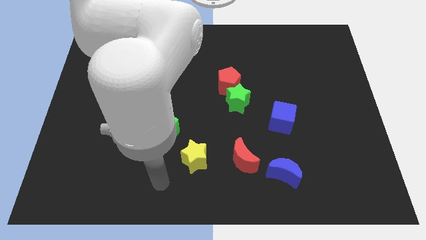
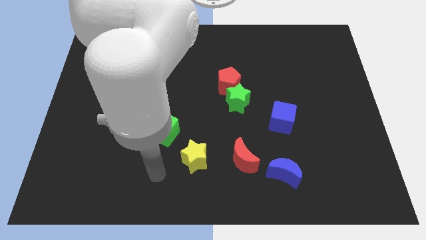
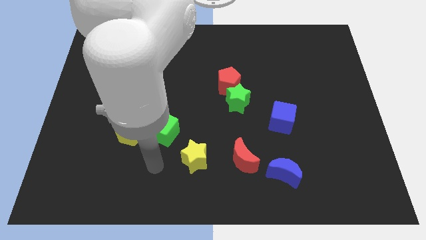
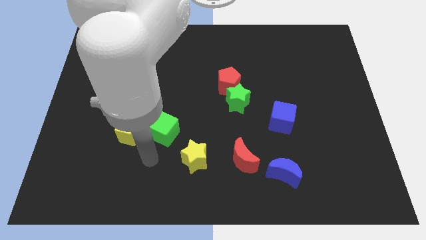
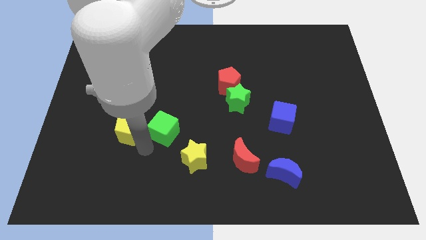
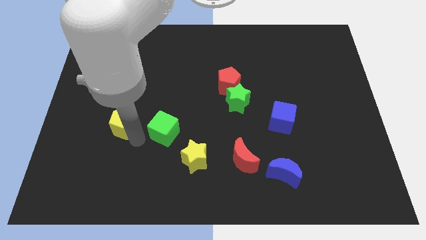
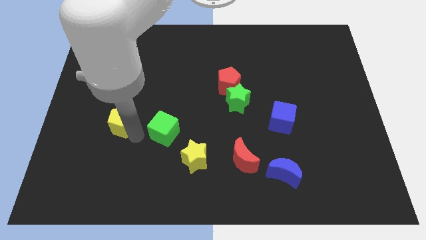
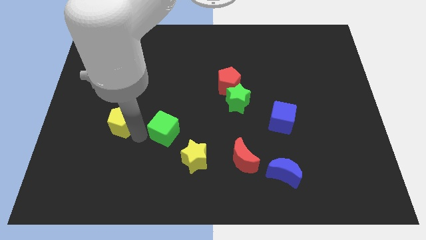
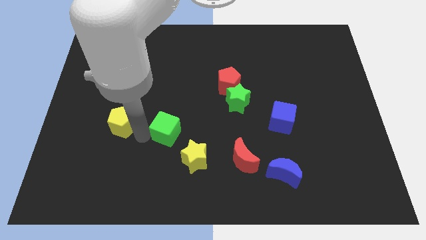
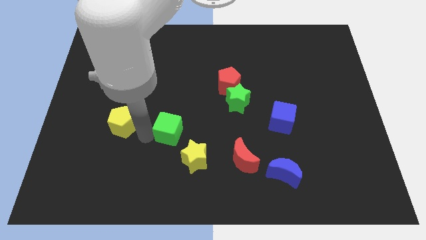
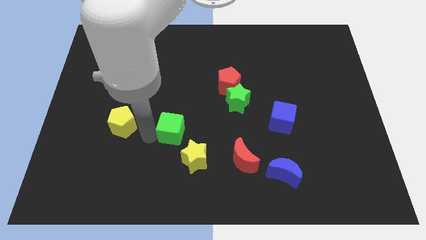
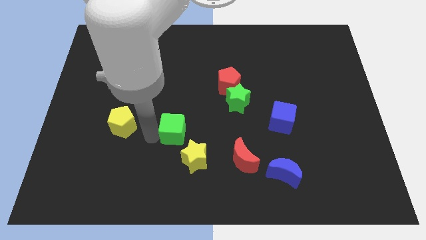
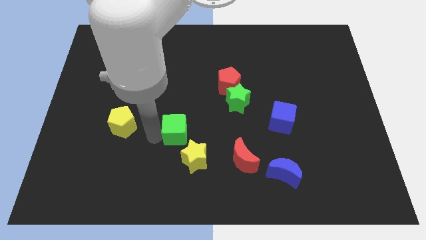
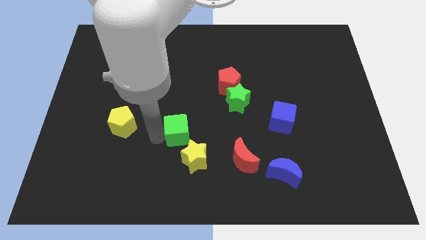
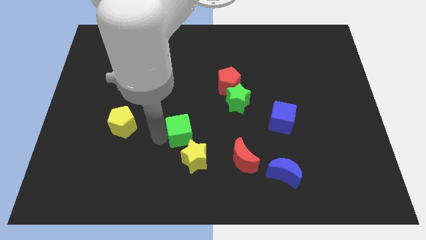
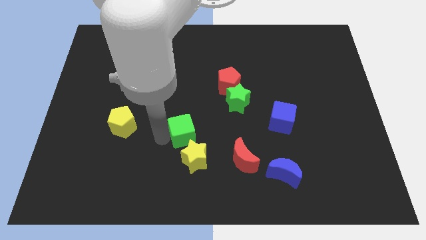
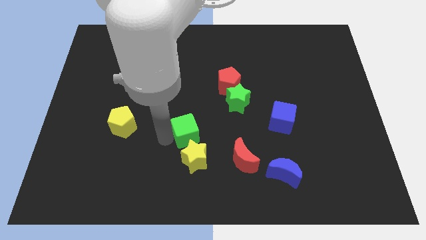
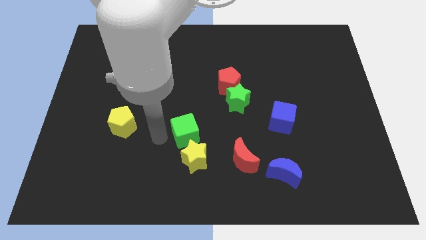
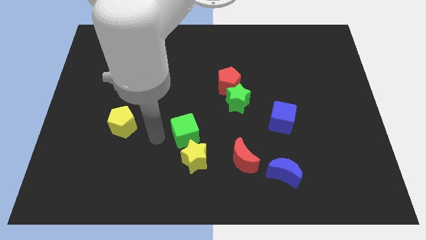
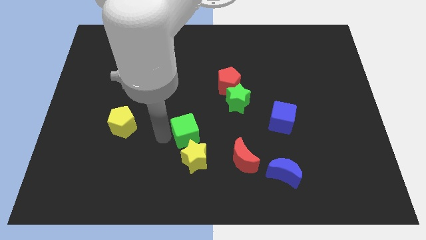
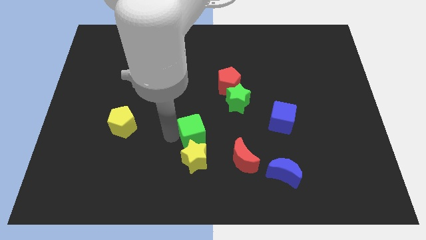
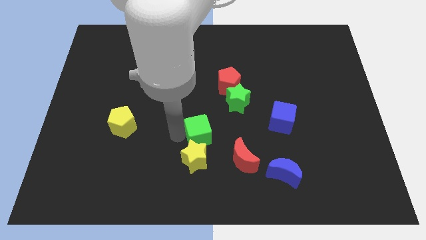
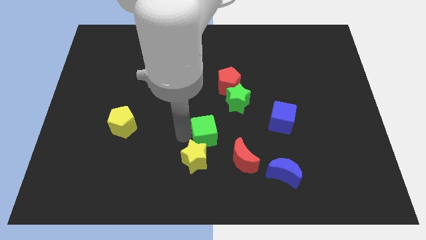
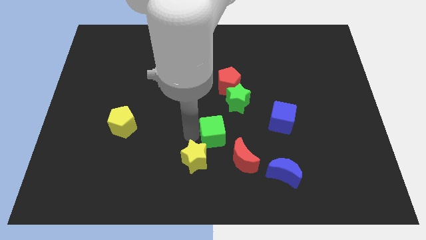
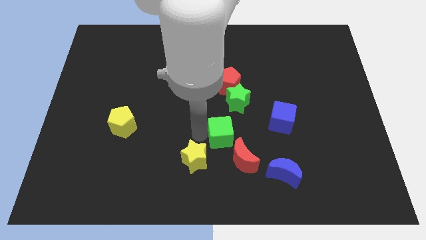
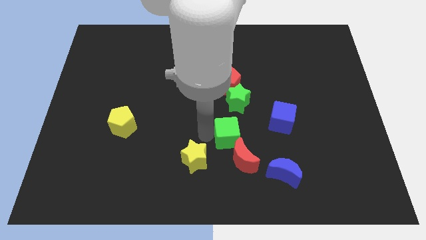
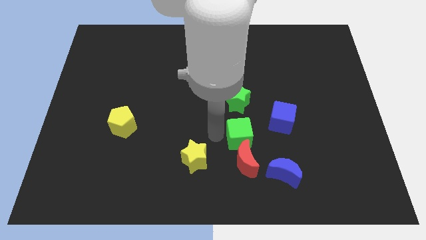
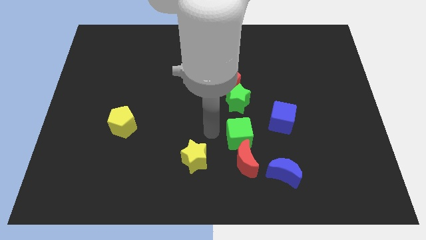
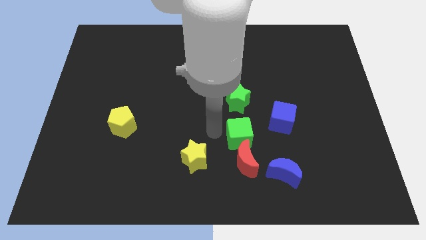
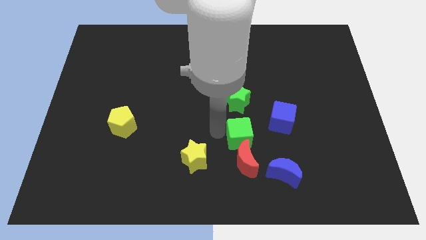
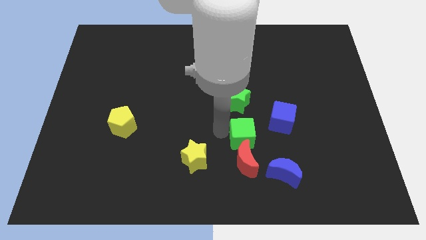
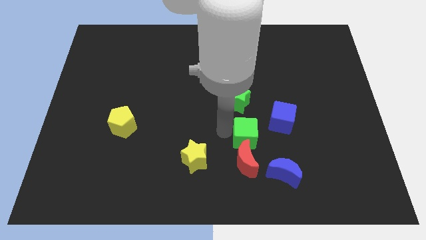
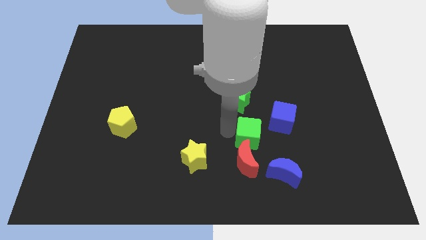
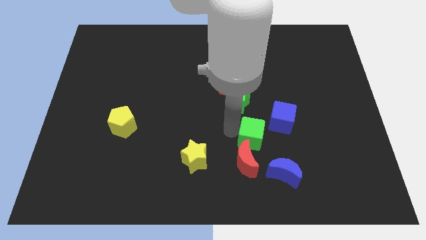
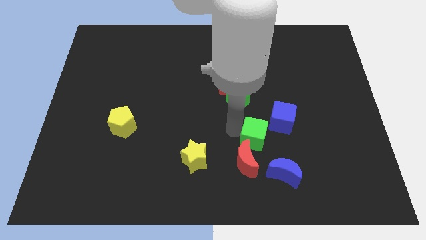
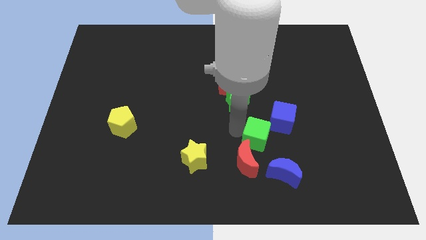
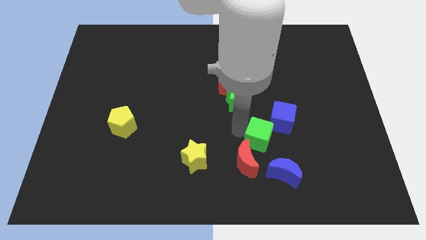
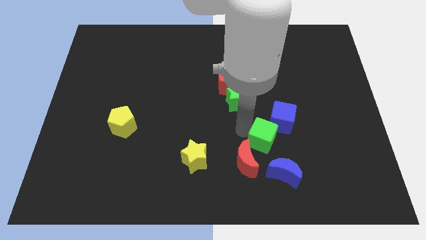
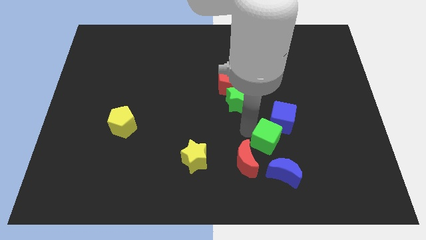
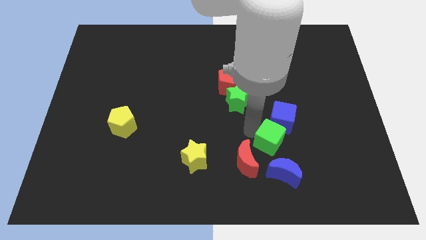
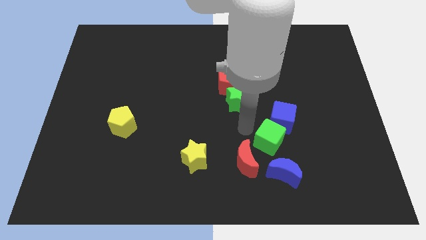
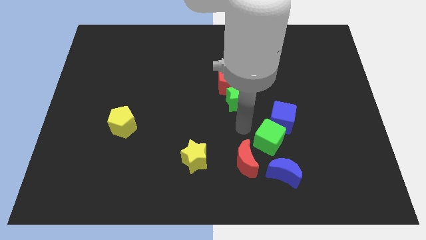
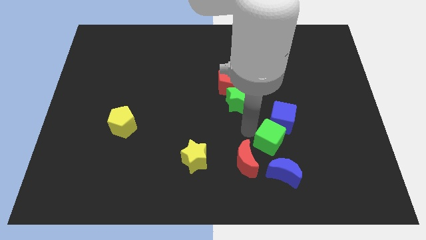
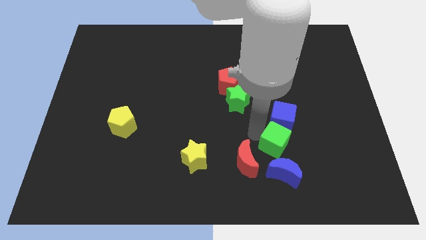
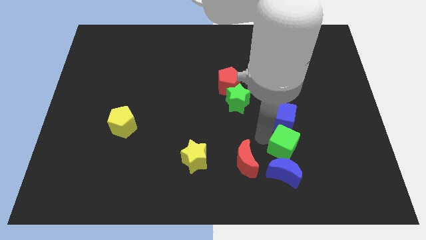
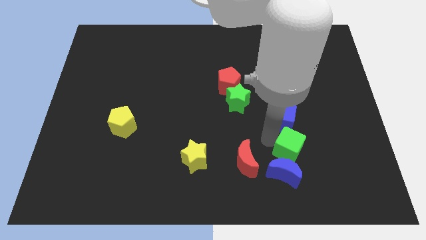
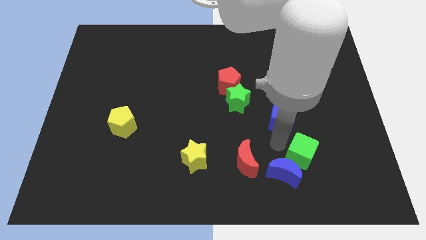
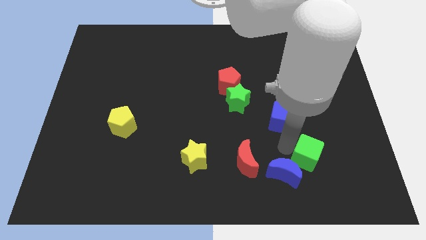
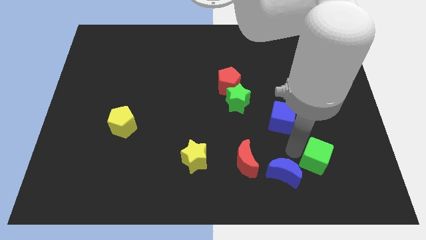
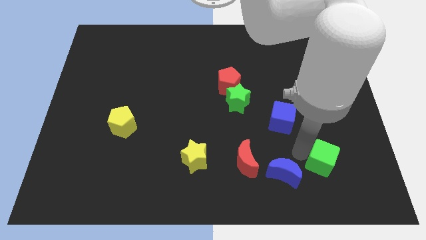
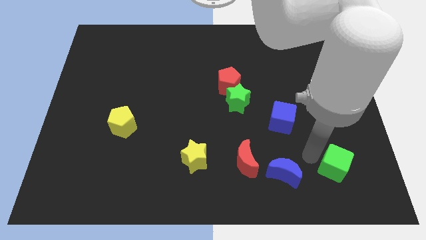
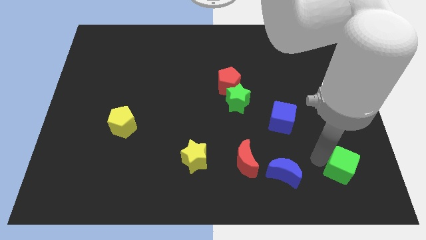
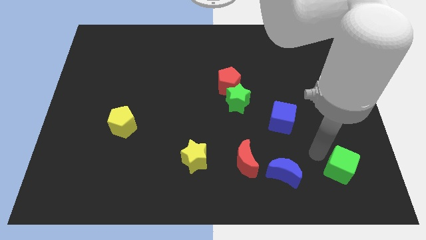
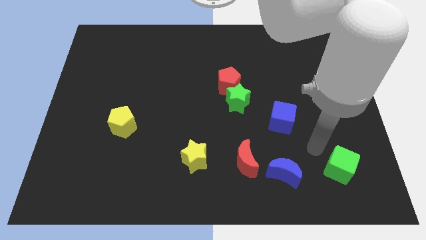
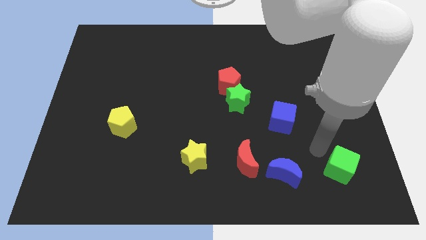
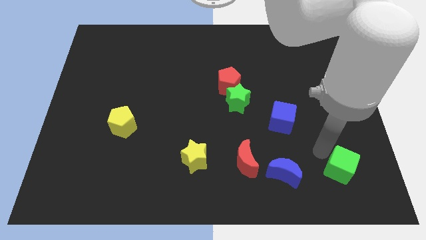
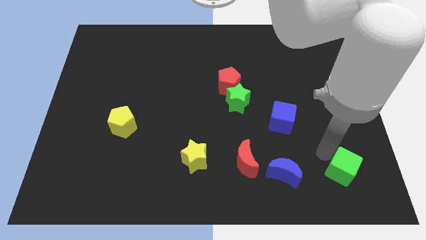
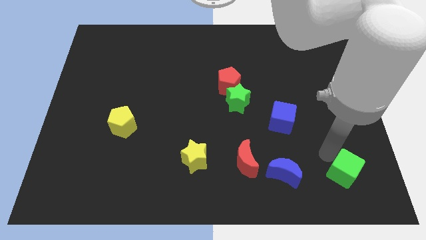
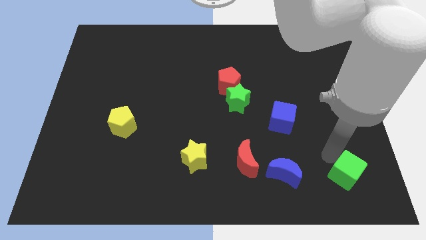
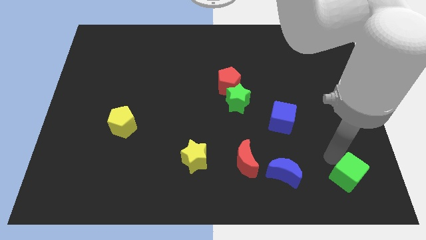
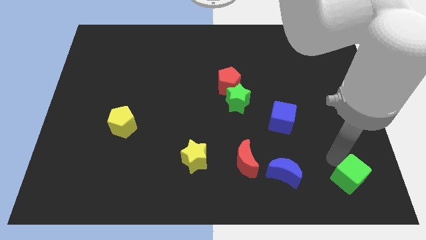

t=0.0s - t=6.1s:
put the green cube to the bottom right of the board
